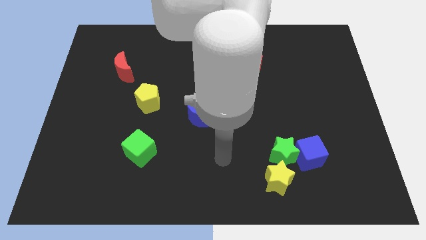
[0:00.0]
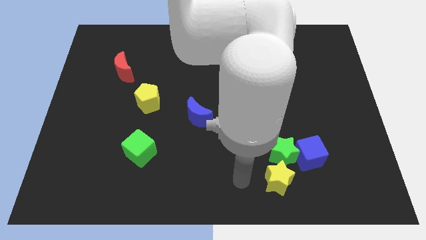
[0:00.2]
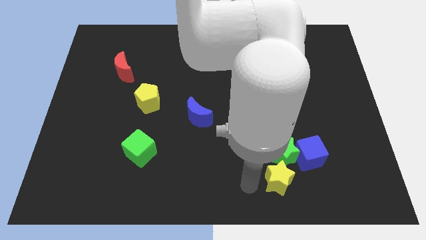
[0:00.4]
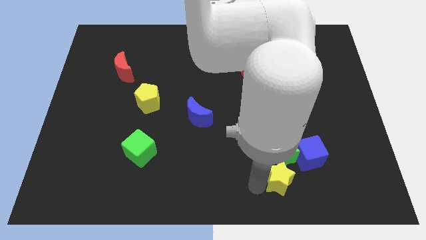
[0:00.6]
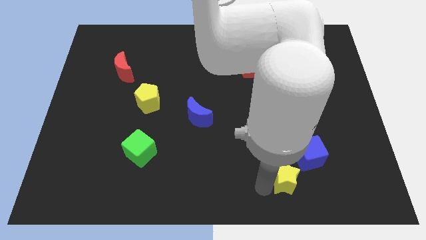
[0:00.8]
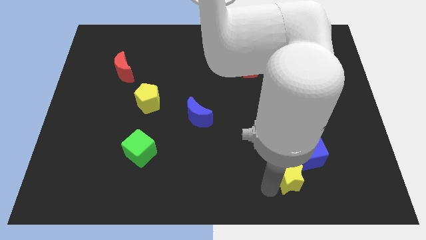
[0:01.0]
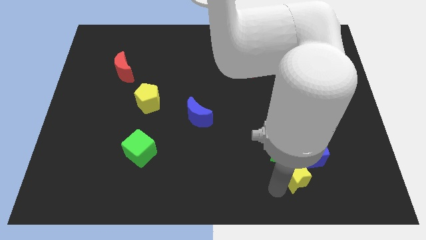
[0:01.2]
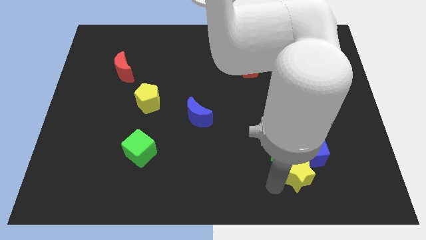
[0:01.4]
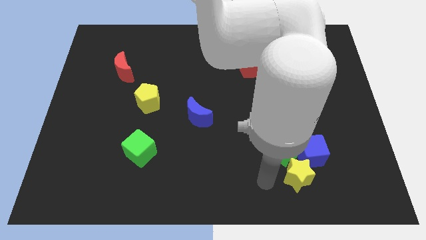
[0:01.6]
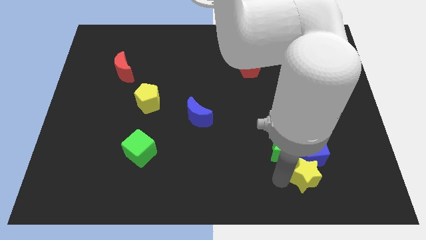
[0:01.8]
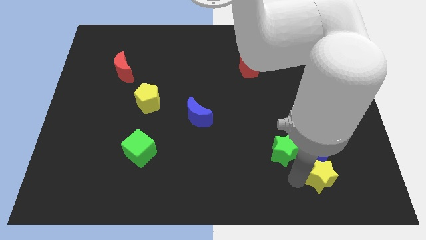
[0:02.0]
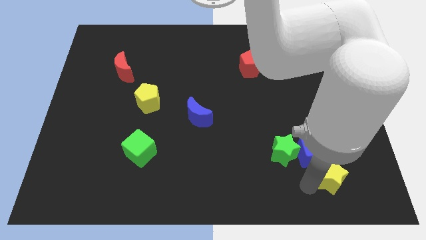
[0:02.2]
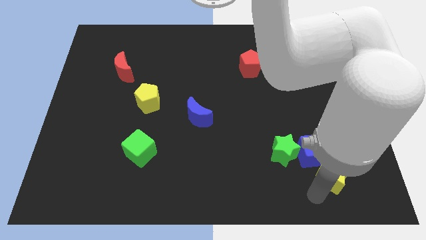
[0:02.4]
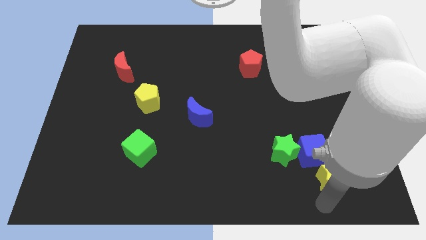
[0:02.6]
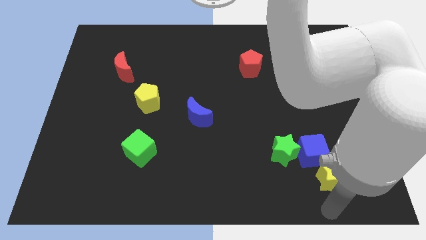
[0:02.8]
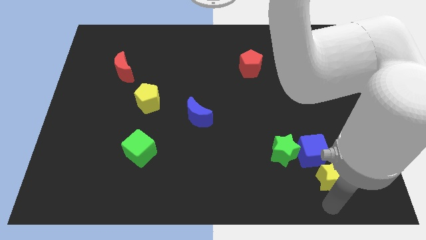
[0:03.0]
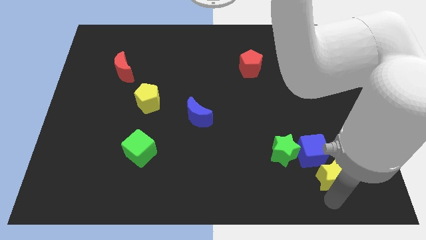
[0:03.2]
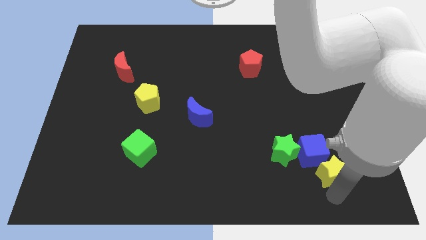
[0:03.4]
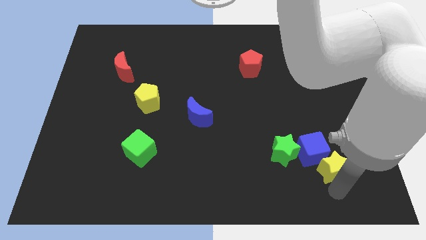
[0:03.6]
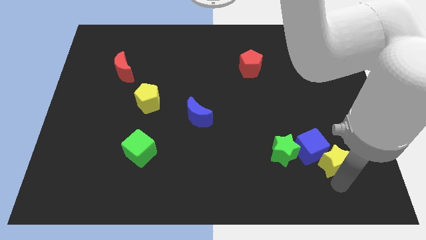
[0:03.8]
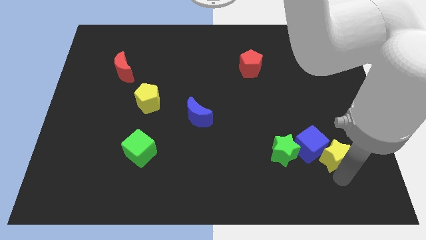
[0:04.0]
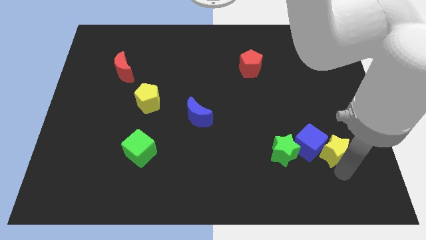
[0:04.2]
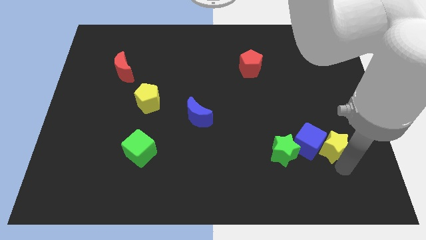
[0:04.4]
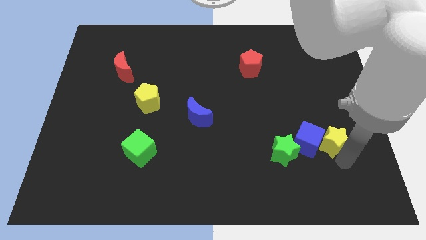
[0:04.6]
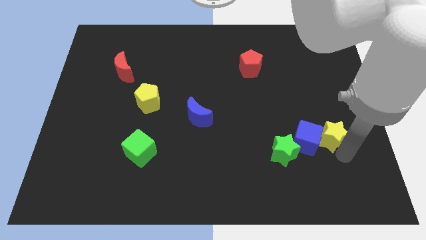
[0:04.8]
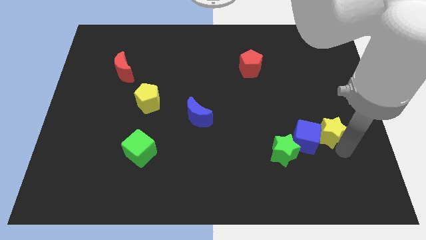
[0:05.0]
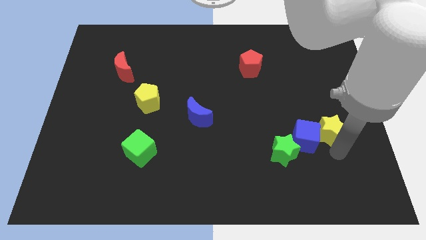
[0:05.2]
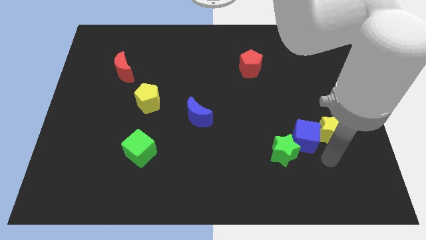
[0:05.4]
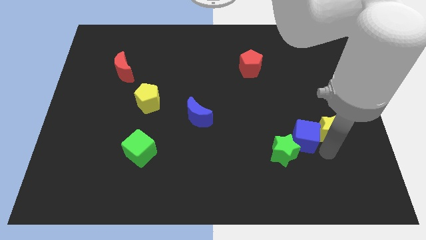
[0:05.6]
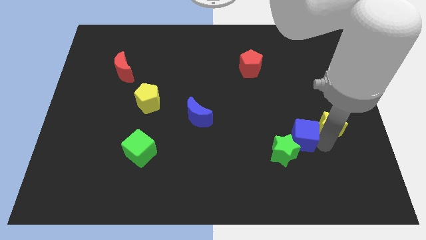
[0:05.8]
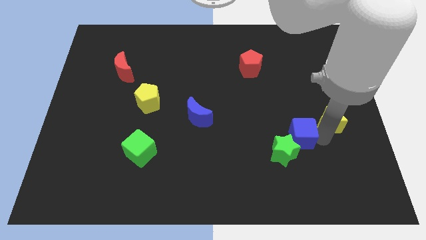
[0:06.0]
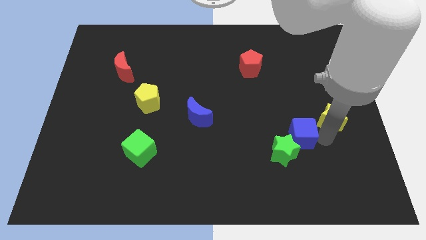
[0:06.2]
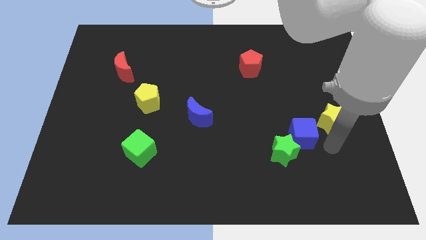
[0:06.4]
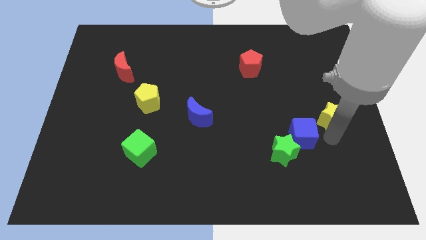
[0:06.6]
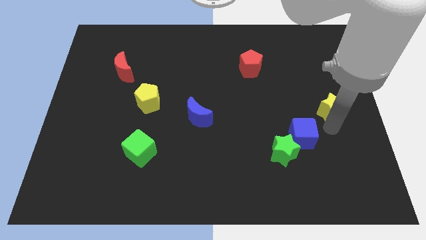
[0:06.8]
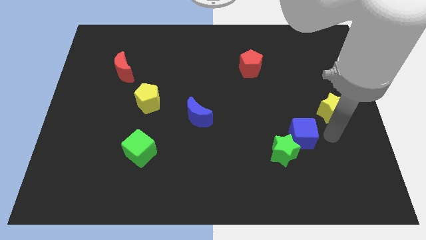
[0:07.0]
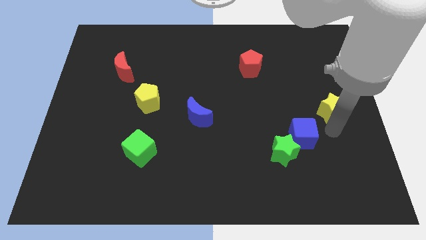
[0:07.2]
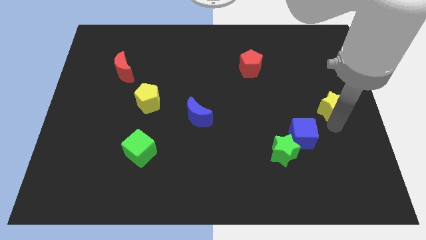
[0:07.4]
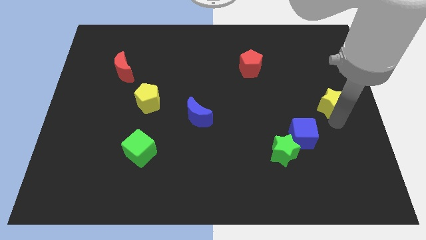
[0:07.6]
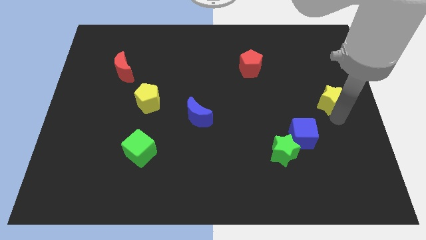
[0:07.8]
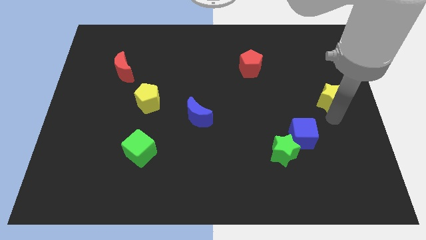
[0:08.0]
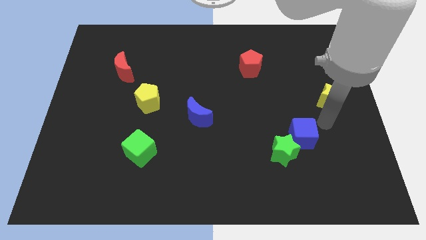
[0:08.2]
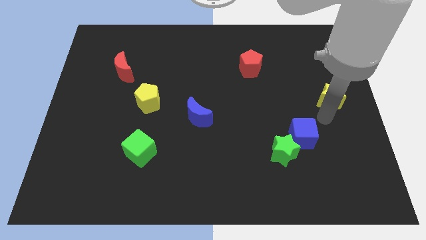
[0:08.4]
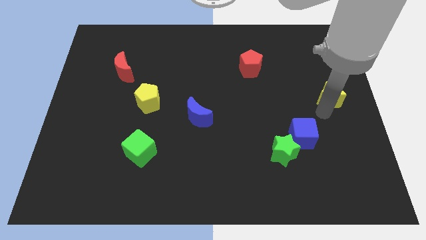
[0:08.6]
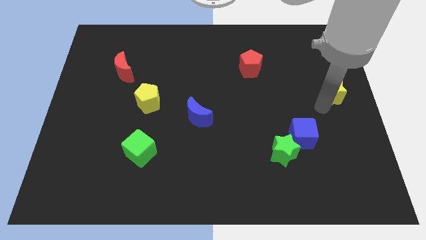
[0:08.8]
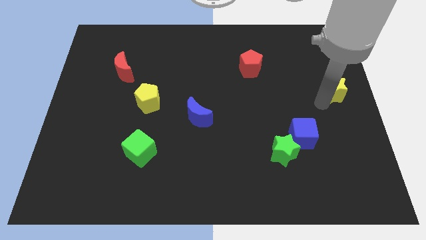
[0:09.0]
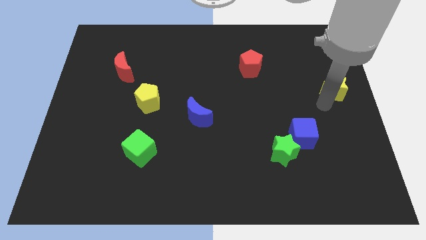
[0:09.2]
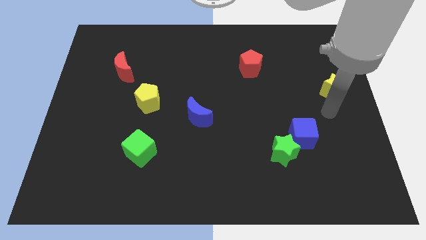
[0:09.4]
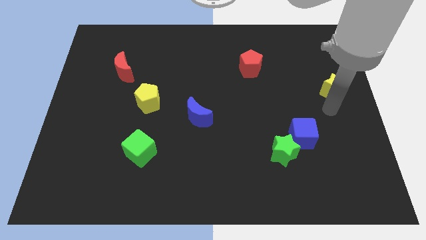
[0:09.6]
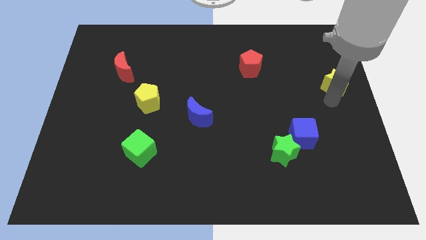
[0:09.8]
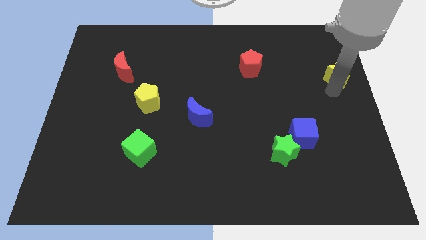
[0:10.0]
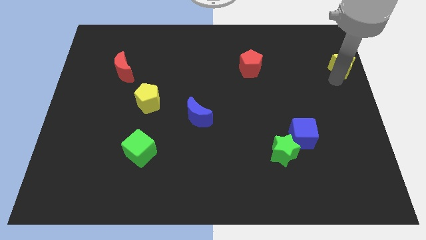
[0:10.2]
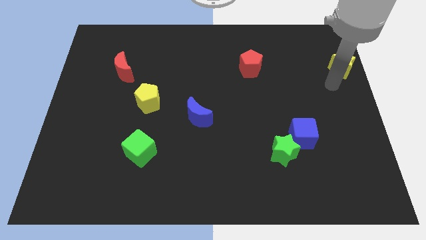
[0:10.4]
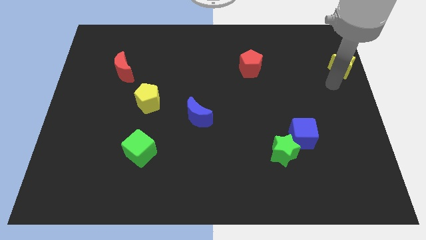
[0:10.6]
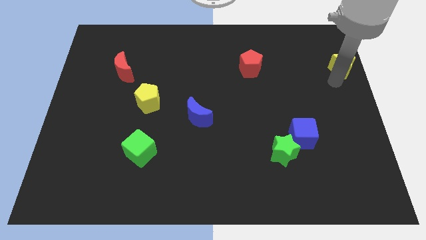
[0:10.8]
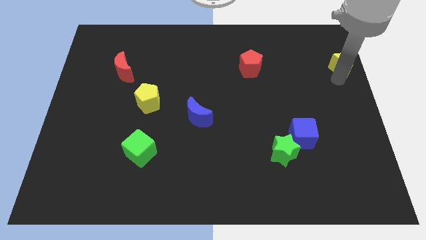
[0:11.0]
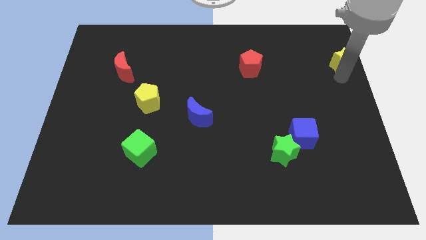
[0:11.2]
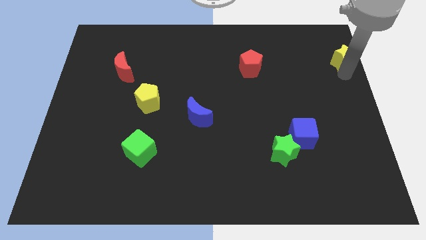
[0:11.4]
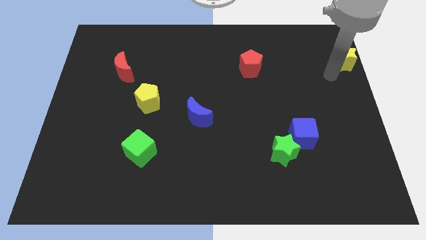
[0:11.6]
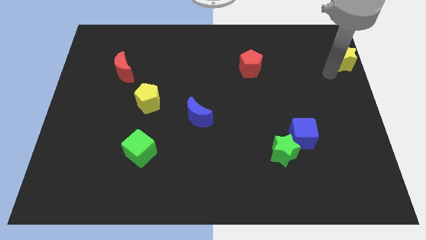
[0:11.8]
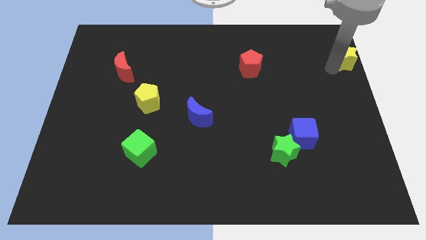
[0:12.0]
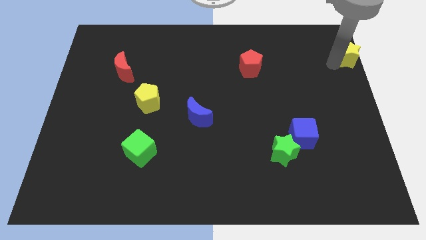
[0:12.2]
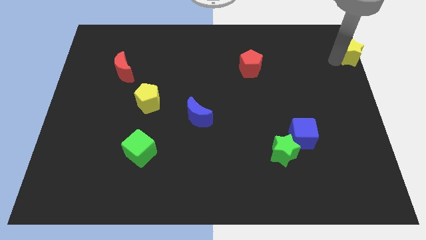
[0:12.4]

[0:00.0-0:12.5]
put the yellow star to the top right of the board

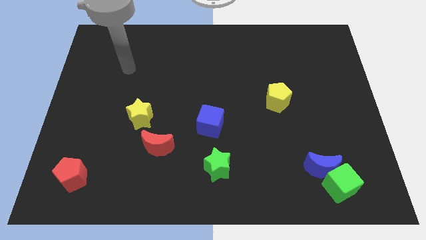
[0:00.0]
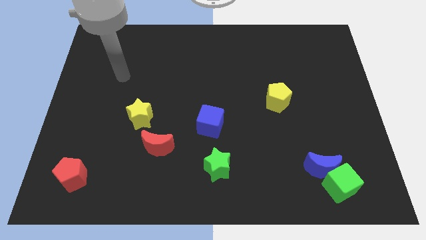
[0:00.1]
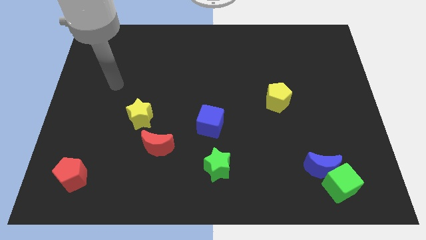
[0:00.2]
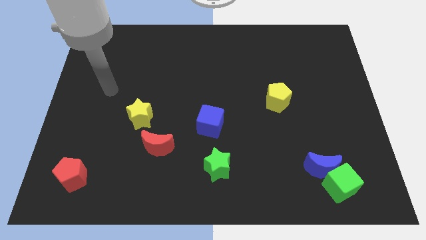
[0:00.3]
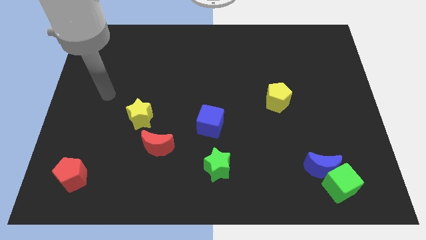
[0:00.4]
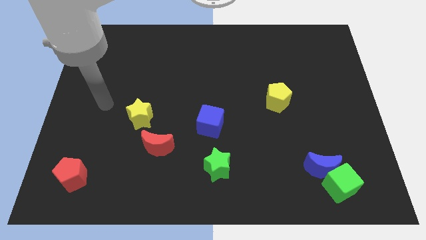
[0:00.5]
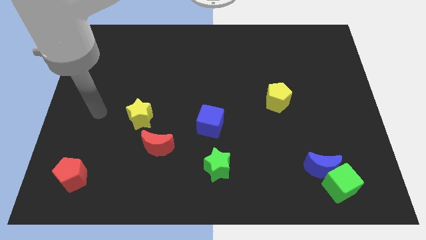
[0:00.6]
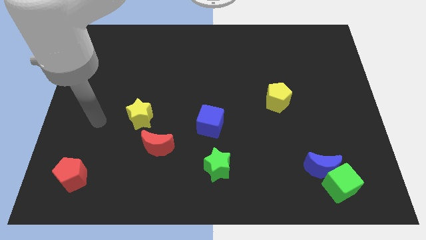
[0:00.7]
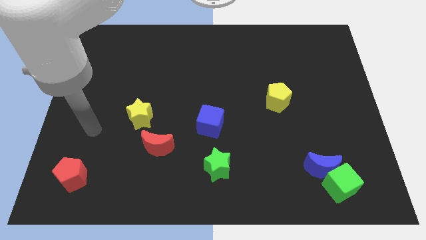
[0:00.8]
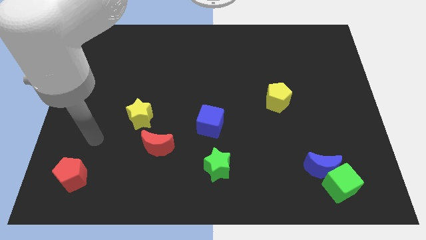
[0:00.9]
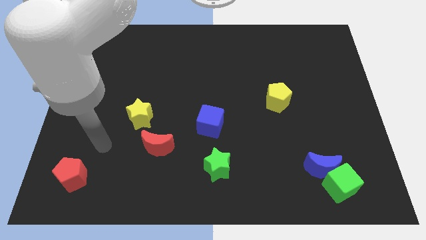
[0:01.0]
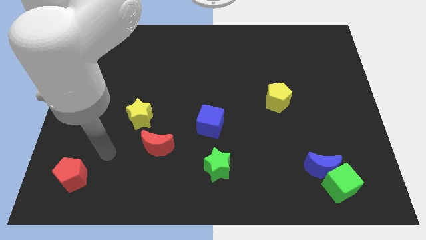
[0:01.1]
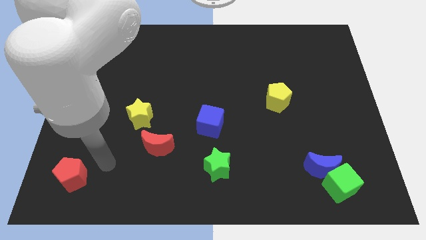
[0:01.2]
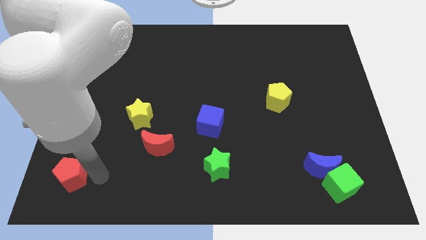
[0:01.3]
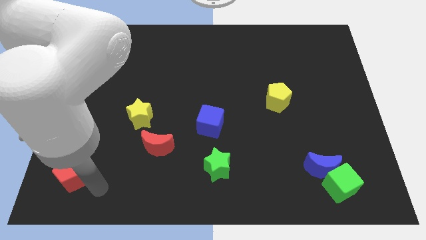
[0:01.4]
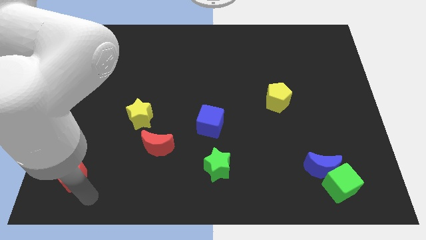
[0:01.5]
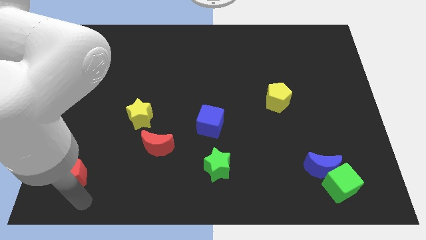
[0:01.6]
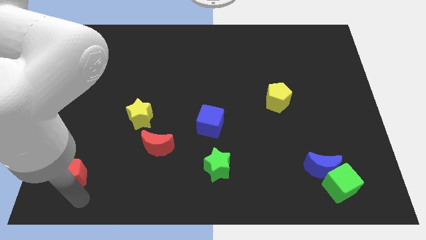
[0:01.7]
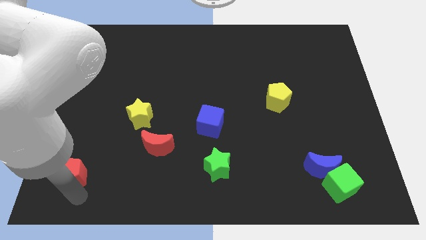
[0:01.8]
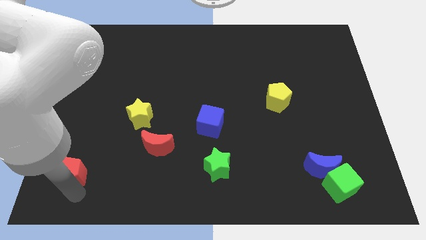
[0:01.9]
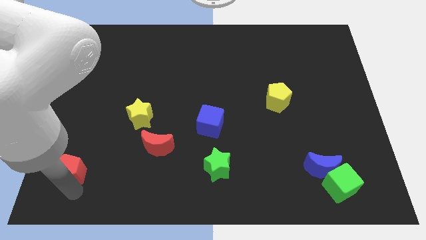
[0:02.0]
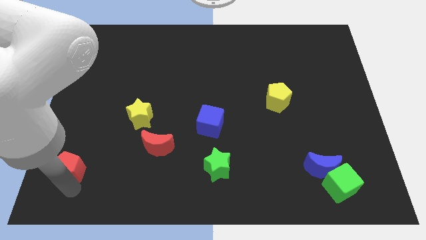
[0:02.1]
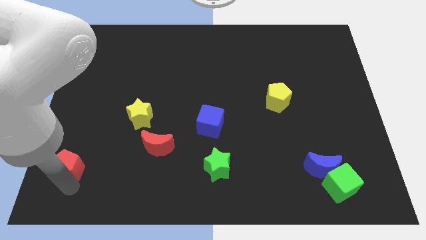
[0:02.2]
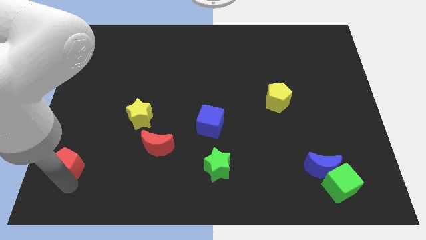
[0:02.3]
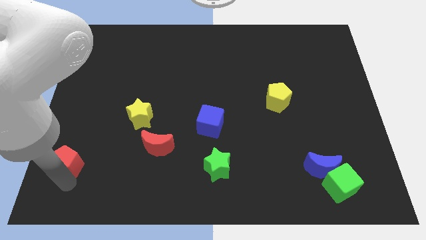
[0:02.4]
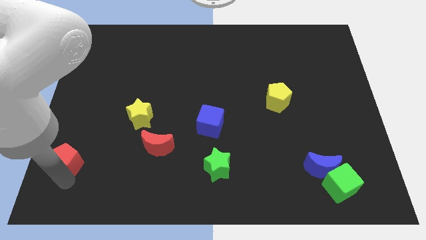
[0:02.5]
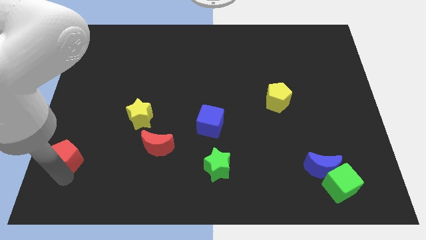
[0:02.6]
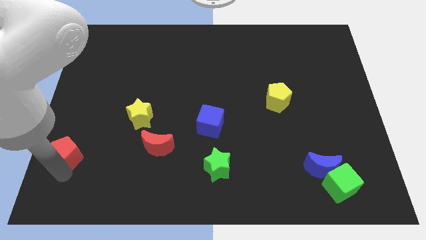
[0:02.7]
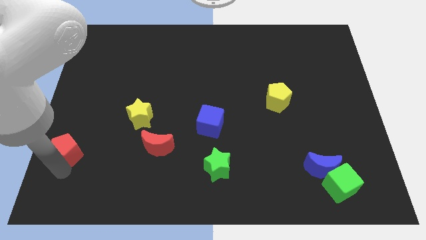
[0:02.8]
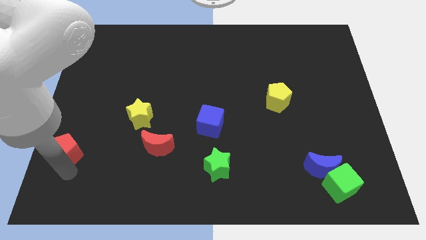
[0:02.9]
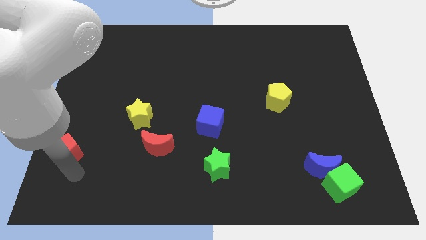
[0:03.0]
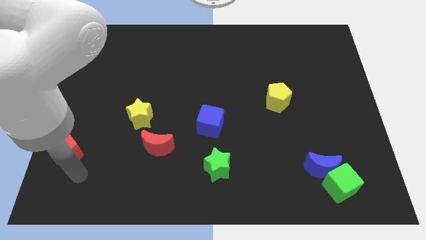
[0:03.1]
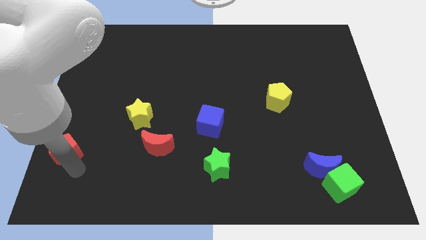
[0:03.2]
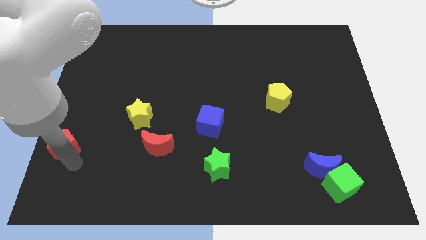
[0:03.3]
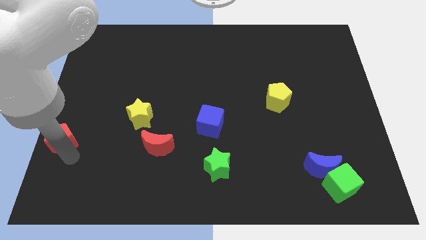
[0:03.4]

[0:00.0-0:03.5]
put the red pentagon to the left side
